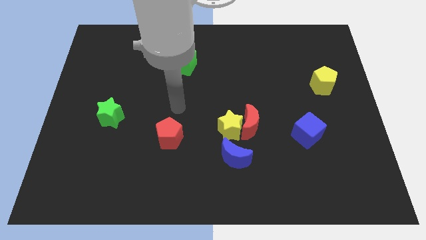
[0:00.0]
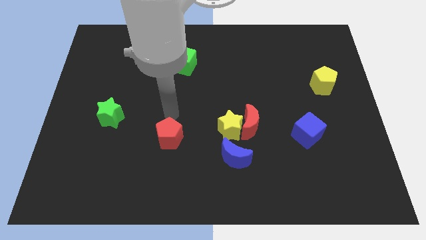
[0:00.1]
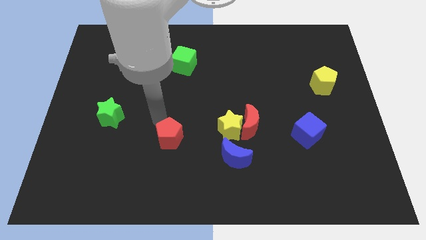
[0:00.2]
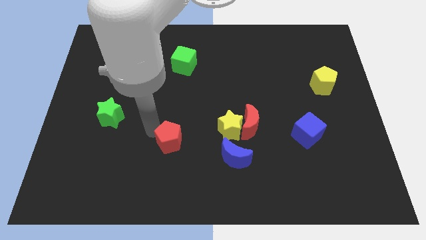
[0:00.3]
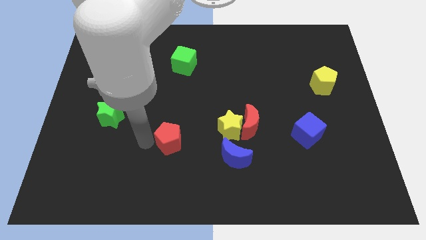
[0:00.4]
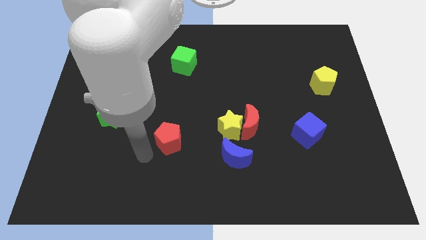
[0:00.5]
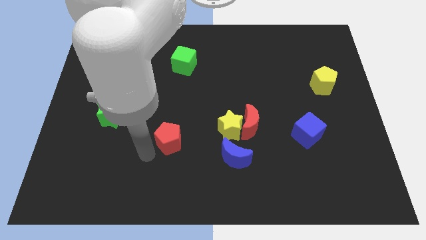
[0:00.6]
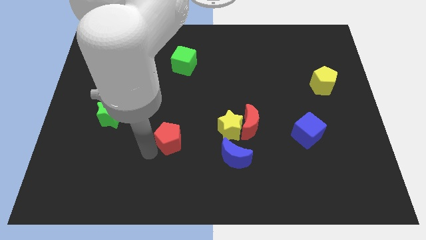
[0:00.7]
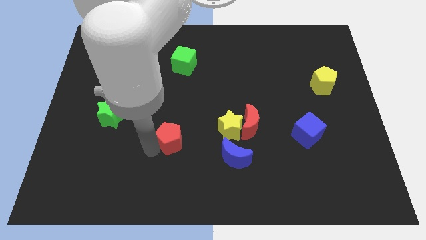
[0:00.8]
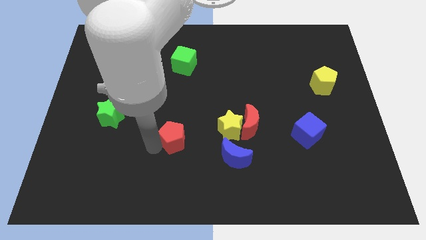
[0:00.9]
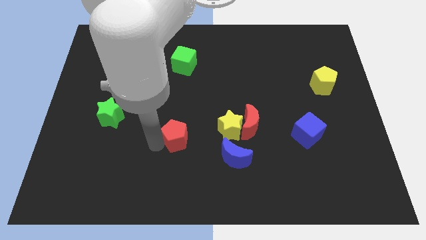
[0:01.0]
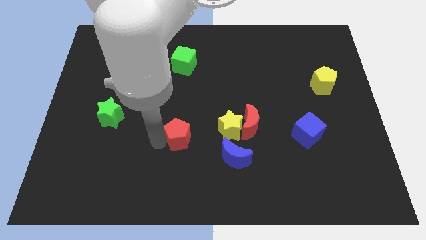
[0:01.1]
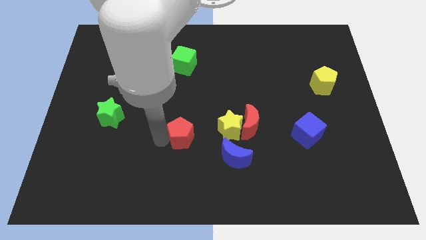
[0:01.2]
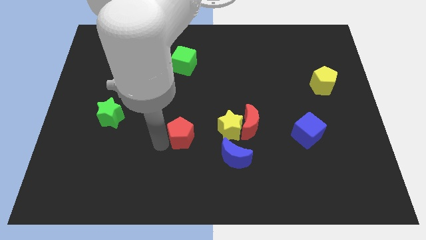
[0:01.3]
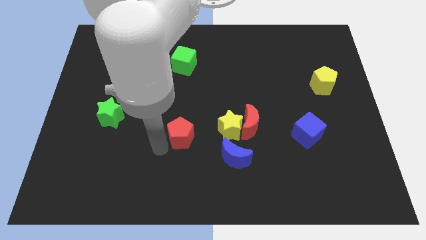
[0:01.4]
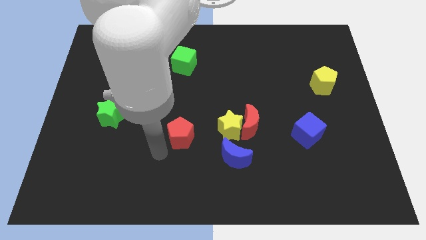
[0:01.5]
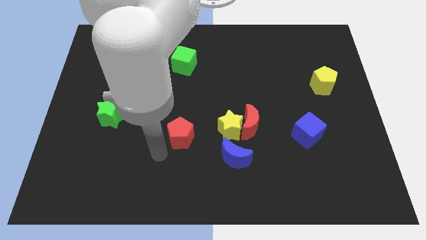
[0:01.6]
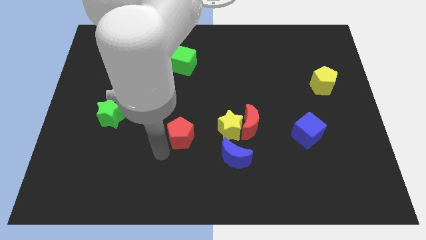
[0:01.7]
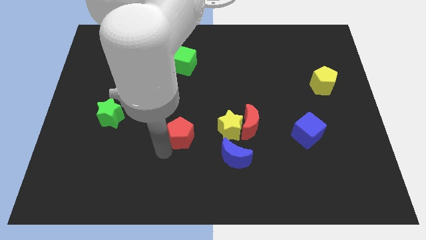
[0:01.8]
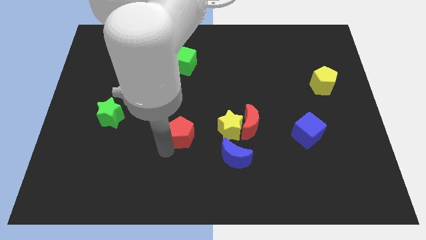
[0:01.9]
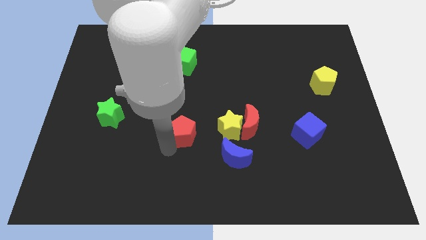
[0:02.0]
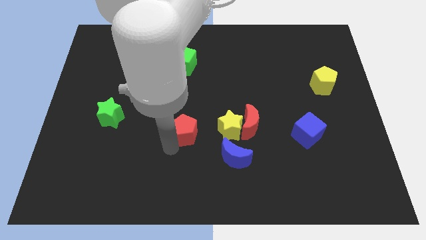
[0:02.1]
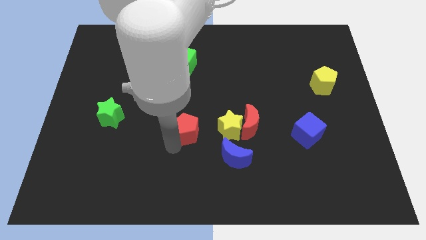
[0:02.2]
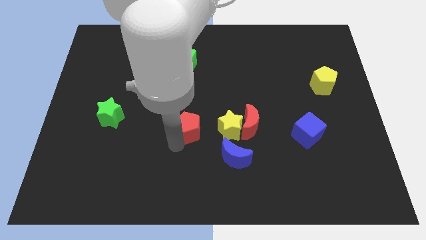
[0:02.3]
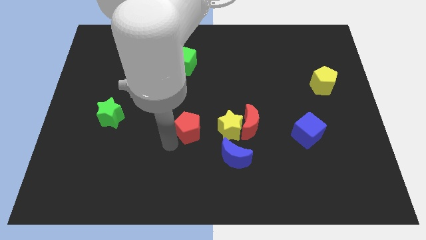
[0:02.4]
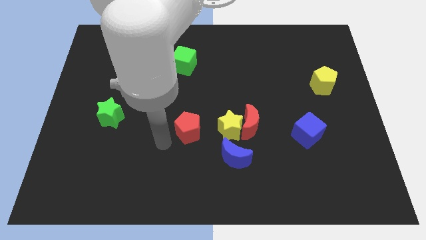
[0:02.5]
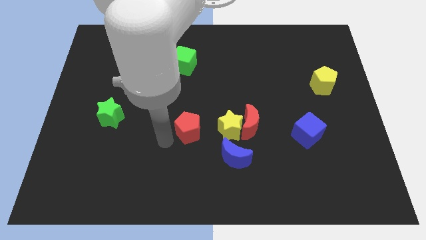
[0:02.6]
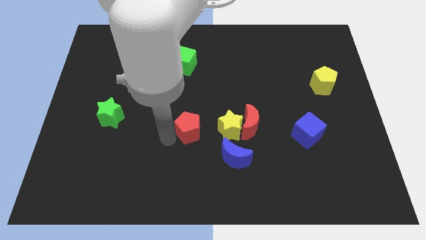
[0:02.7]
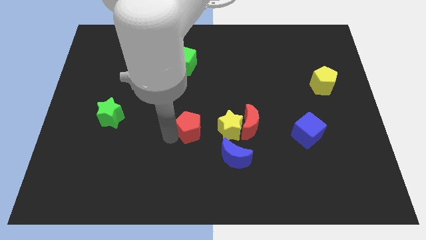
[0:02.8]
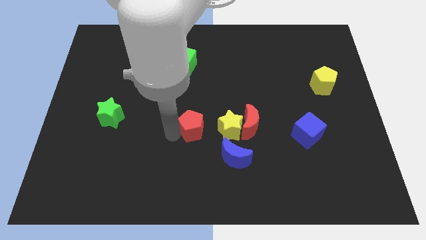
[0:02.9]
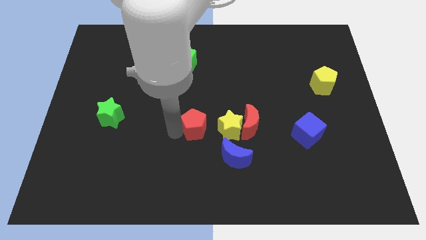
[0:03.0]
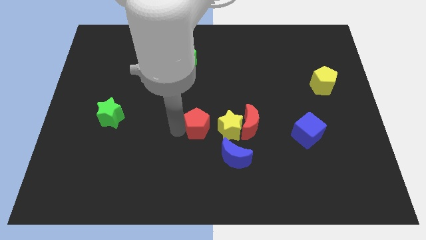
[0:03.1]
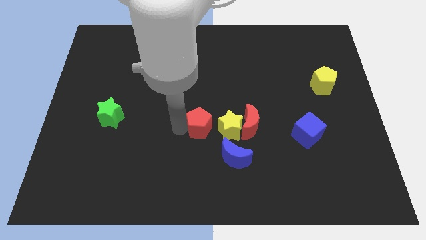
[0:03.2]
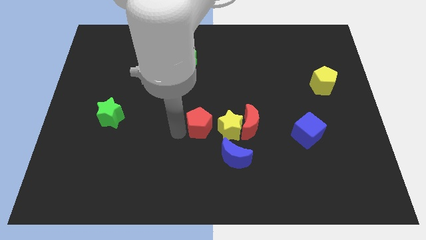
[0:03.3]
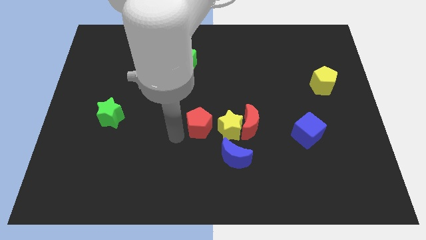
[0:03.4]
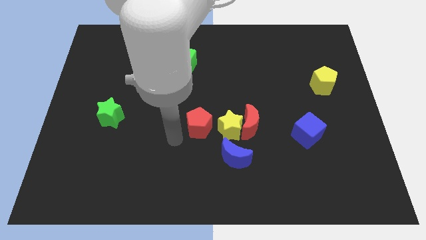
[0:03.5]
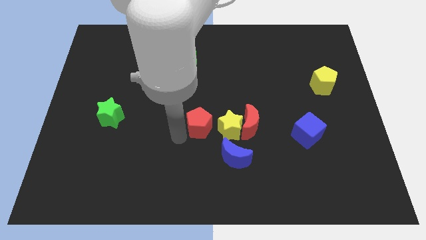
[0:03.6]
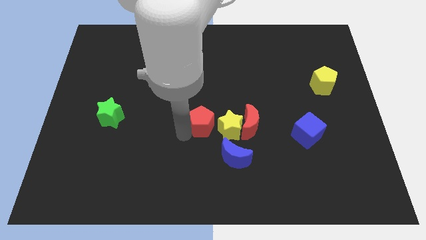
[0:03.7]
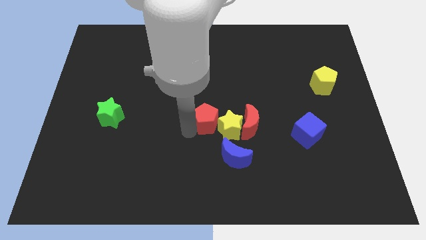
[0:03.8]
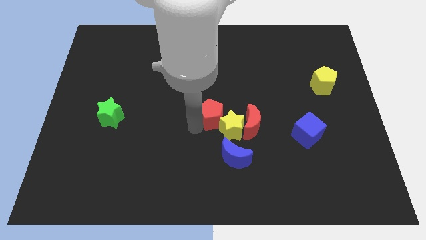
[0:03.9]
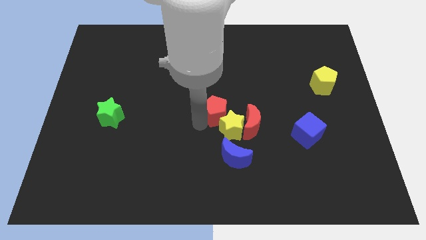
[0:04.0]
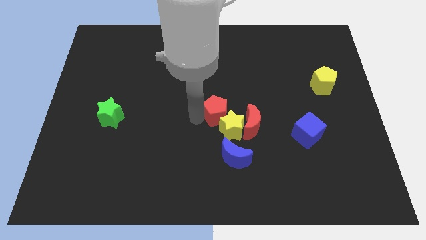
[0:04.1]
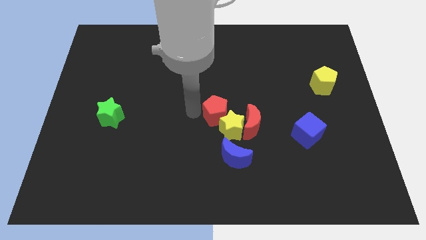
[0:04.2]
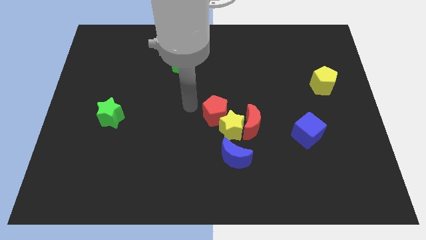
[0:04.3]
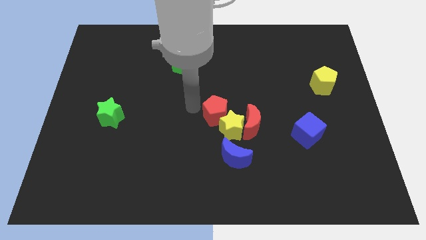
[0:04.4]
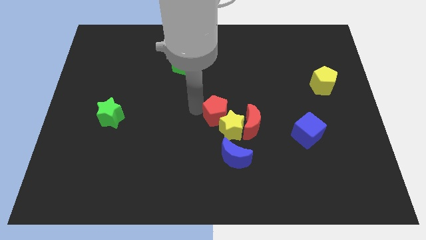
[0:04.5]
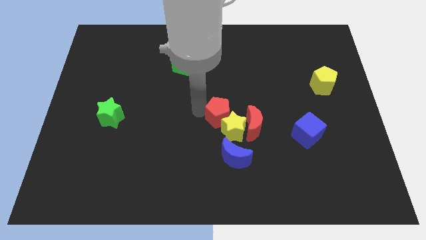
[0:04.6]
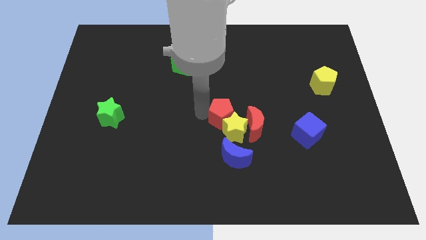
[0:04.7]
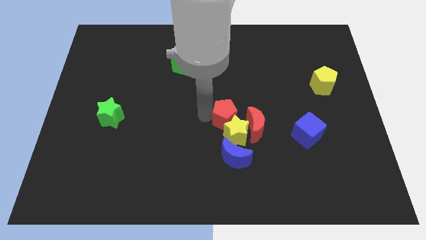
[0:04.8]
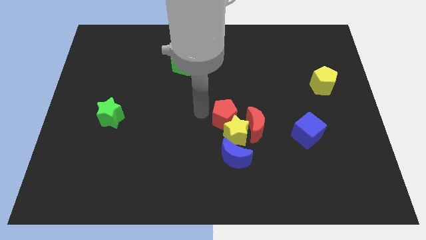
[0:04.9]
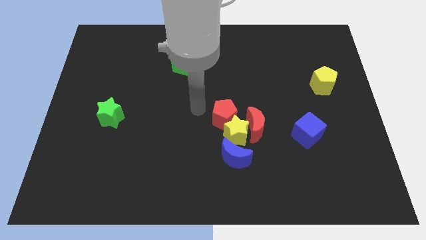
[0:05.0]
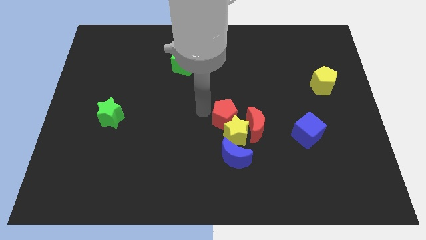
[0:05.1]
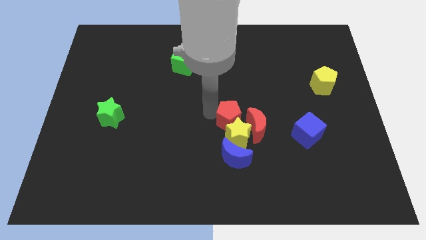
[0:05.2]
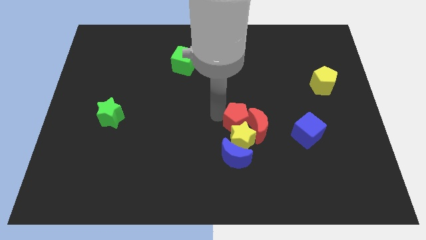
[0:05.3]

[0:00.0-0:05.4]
put the red pentagon next to the red moon

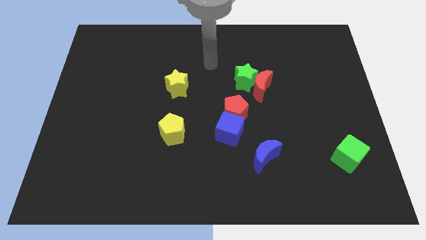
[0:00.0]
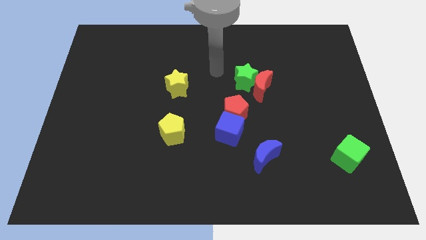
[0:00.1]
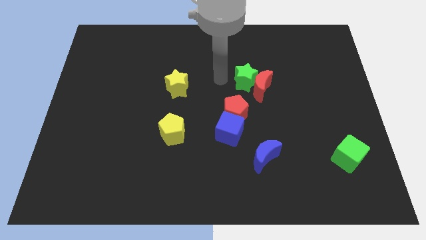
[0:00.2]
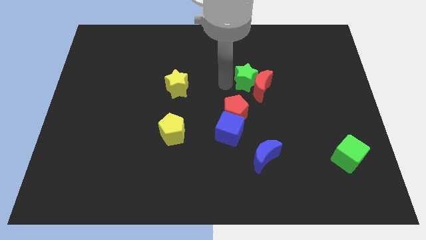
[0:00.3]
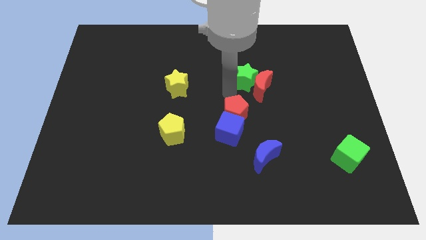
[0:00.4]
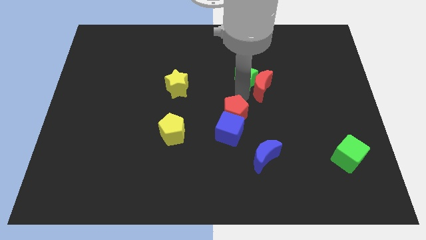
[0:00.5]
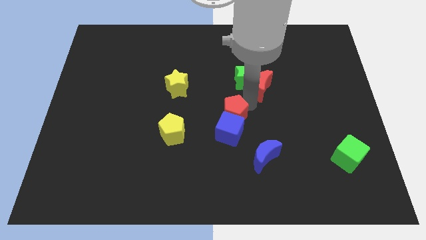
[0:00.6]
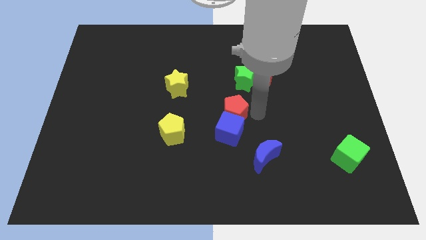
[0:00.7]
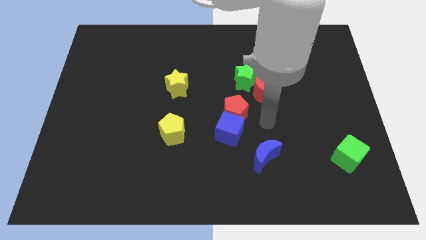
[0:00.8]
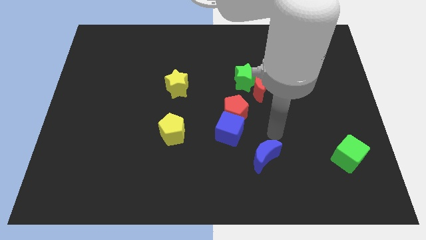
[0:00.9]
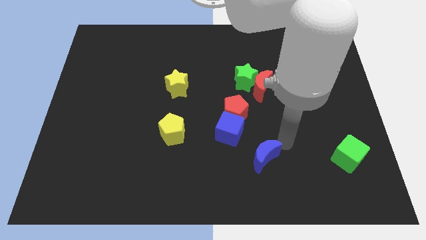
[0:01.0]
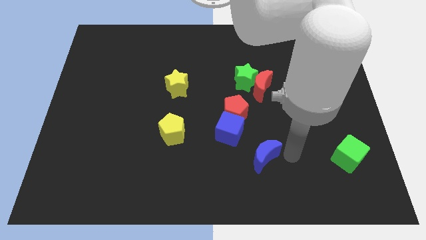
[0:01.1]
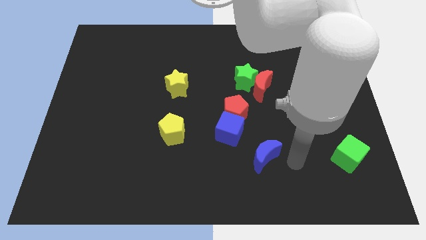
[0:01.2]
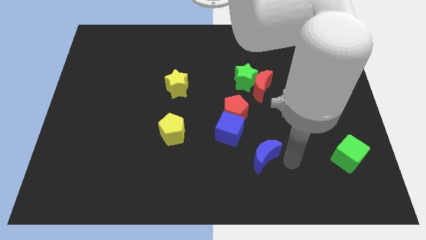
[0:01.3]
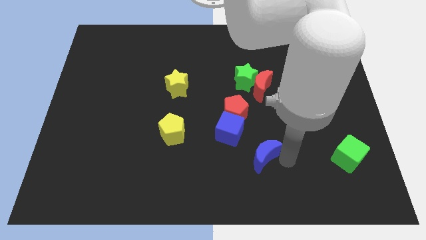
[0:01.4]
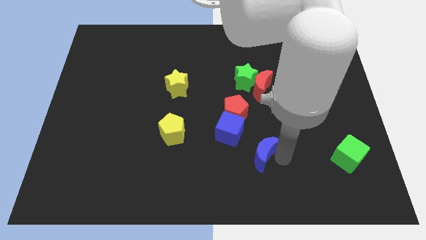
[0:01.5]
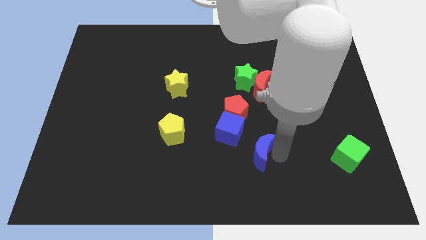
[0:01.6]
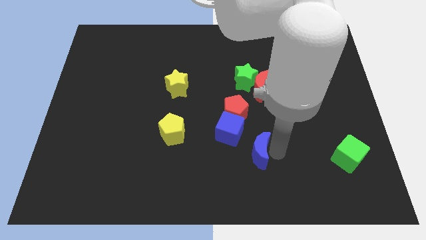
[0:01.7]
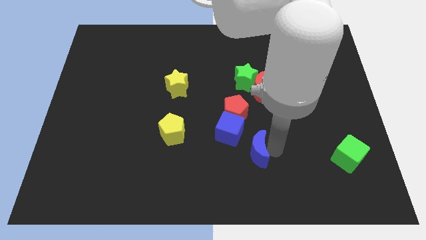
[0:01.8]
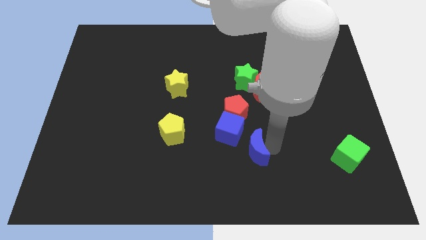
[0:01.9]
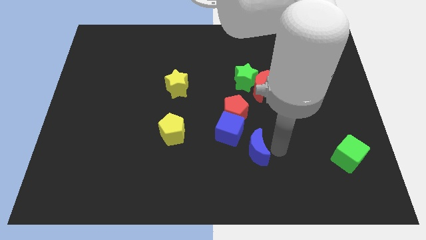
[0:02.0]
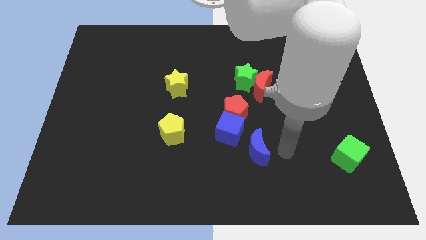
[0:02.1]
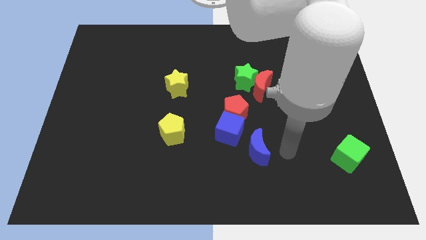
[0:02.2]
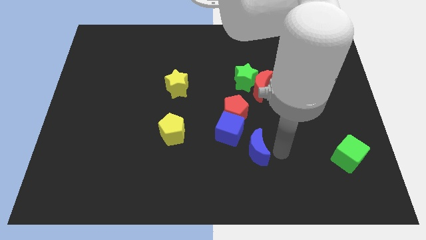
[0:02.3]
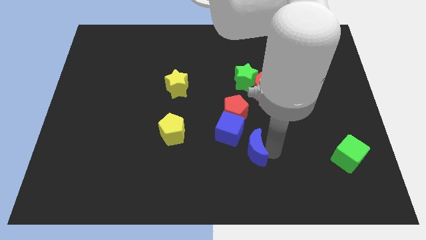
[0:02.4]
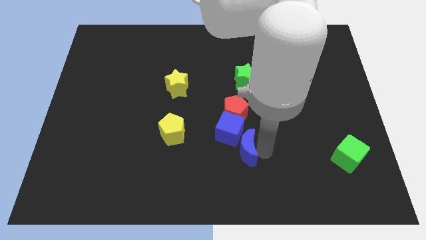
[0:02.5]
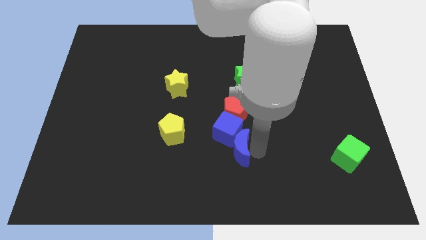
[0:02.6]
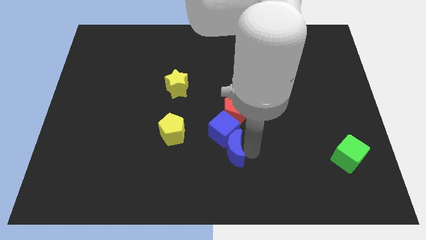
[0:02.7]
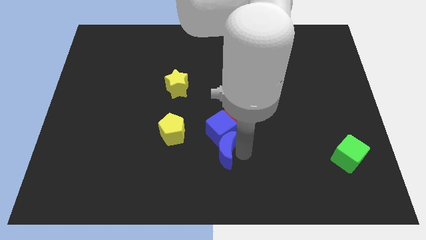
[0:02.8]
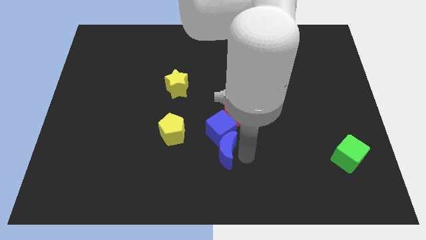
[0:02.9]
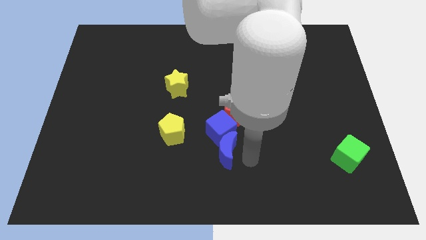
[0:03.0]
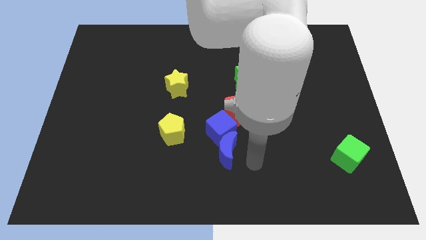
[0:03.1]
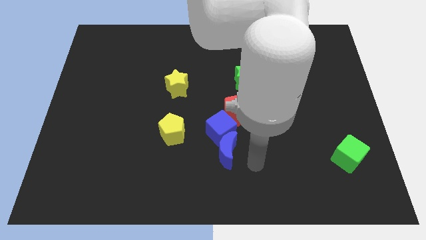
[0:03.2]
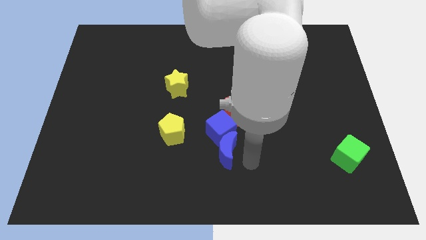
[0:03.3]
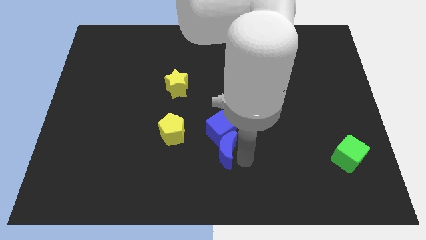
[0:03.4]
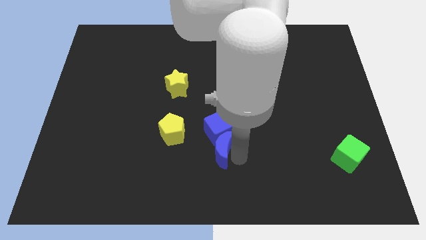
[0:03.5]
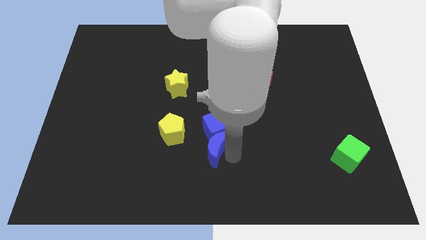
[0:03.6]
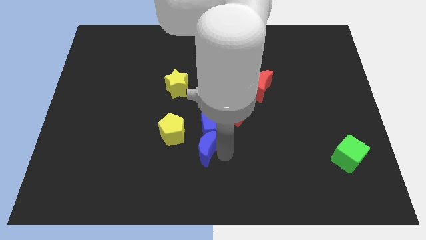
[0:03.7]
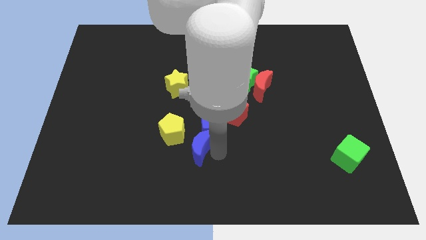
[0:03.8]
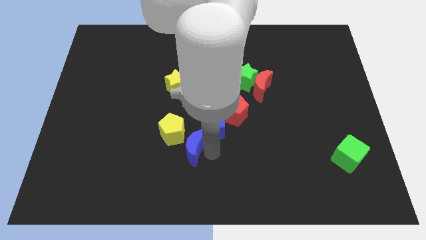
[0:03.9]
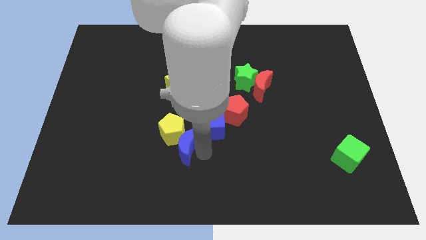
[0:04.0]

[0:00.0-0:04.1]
push the blue moon towards the yellow pentagon
